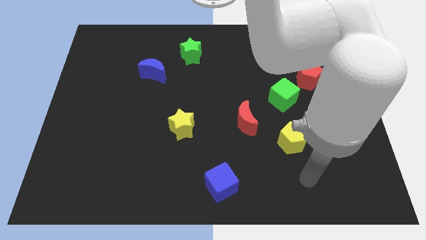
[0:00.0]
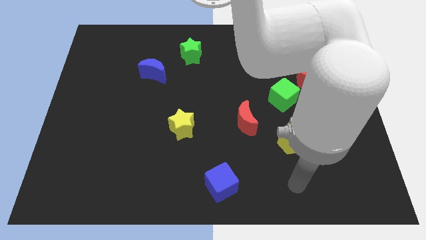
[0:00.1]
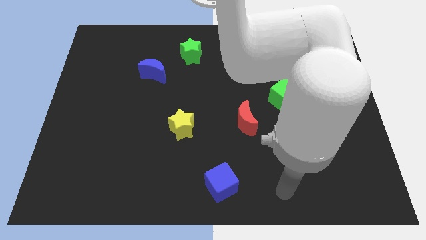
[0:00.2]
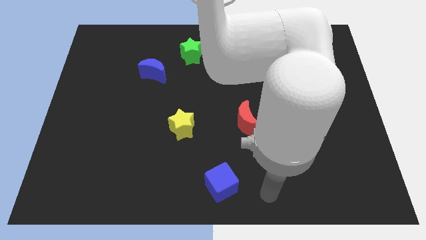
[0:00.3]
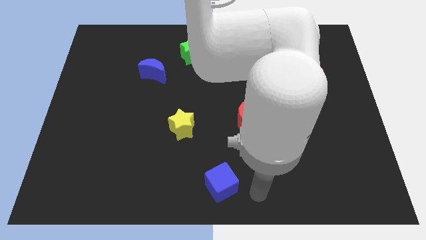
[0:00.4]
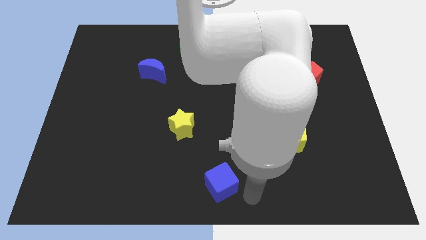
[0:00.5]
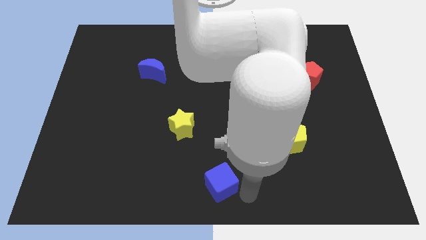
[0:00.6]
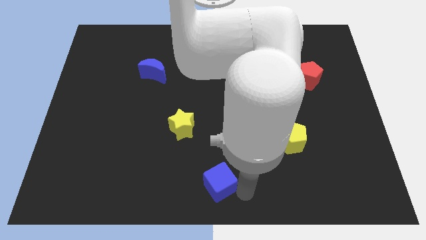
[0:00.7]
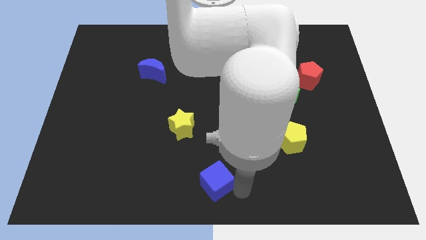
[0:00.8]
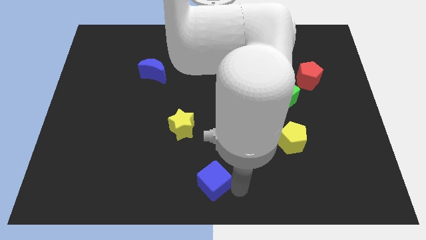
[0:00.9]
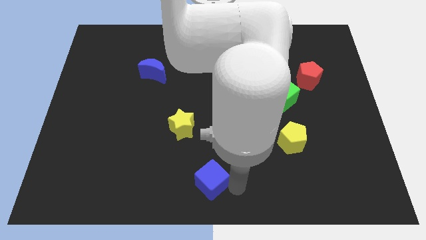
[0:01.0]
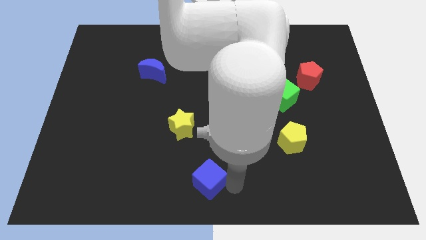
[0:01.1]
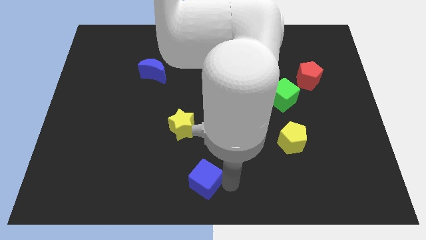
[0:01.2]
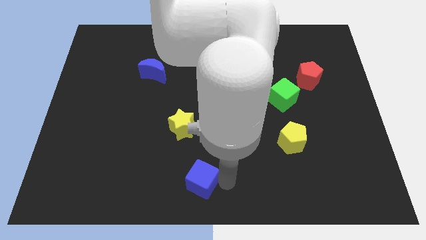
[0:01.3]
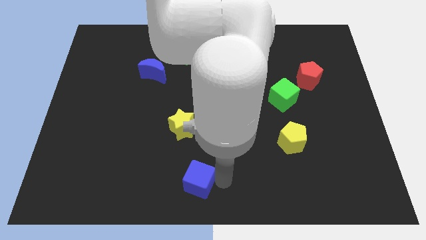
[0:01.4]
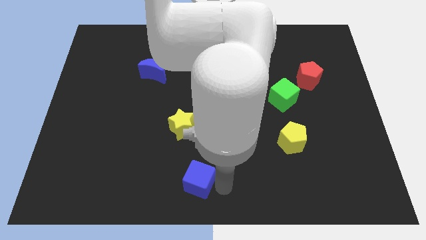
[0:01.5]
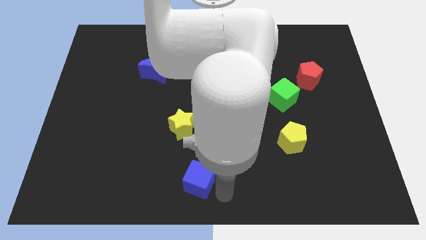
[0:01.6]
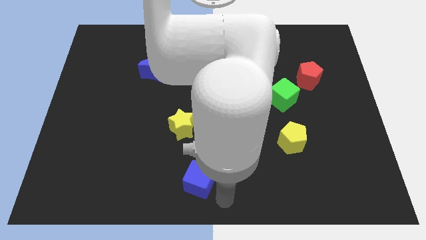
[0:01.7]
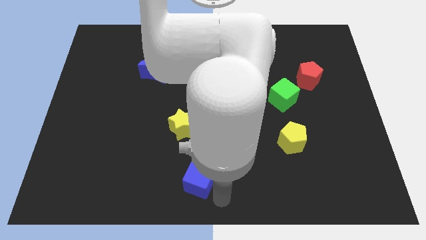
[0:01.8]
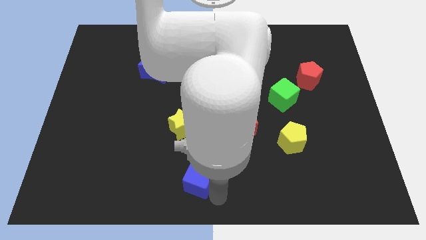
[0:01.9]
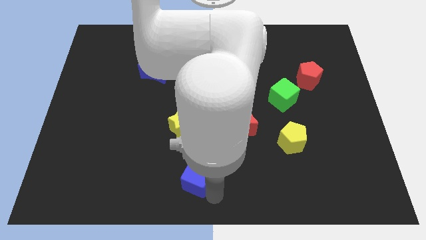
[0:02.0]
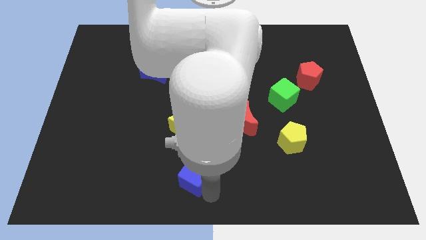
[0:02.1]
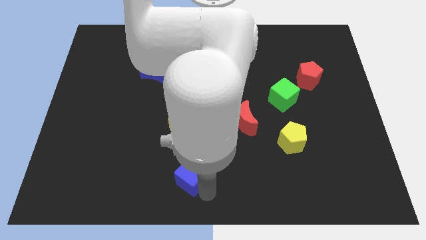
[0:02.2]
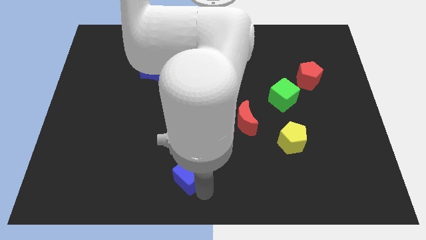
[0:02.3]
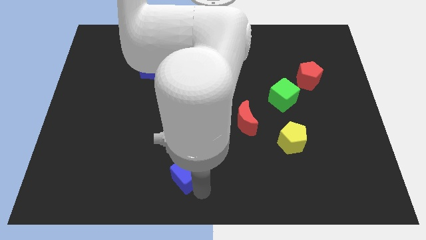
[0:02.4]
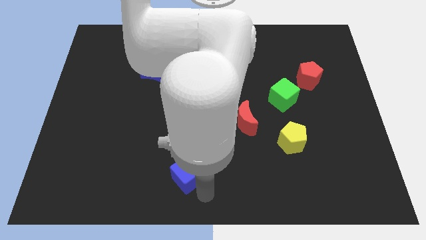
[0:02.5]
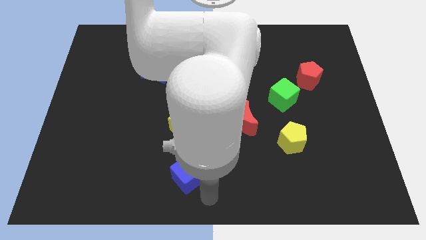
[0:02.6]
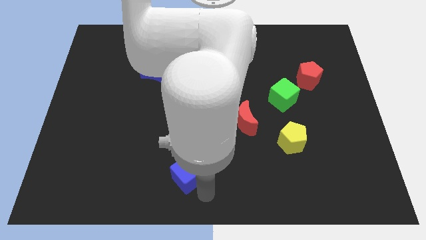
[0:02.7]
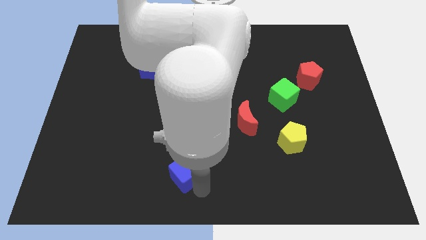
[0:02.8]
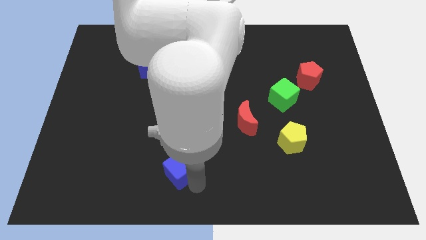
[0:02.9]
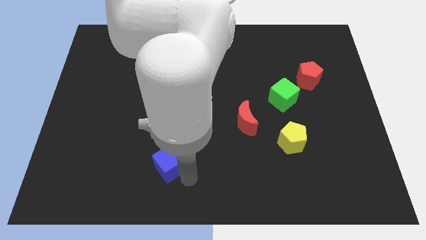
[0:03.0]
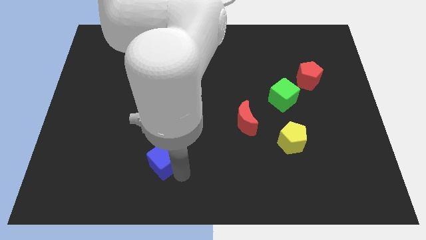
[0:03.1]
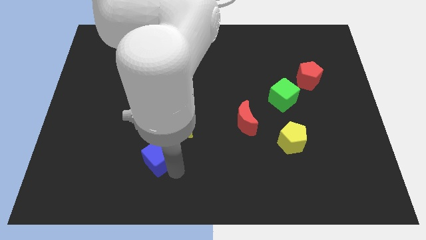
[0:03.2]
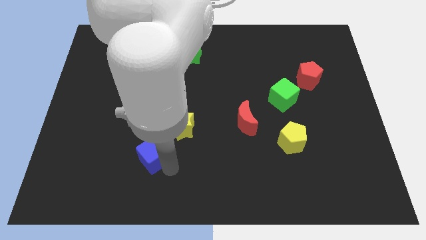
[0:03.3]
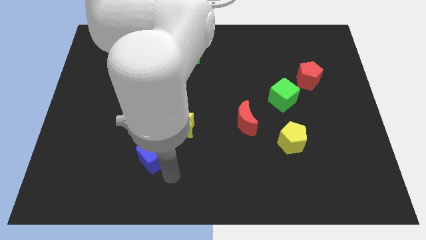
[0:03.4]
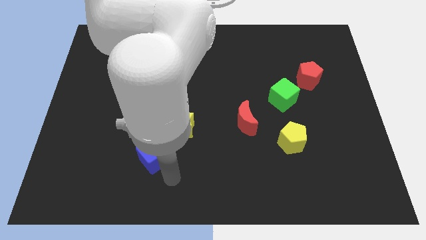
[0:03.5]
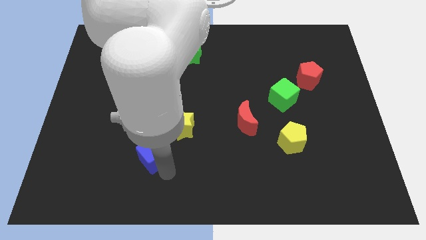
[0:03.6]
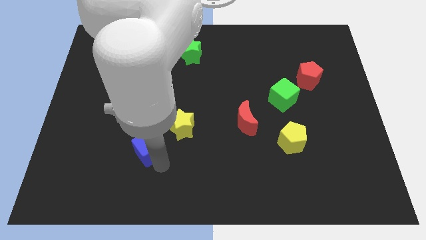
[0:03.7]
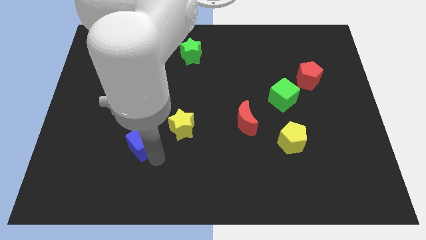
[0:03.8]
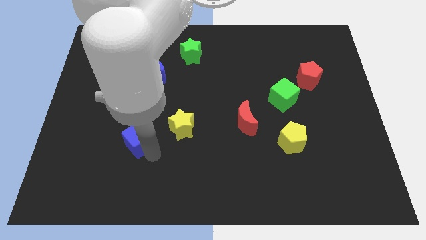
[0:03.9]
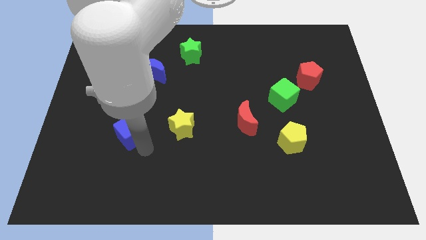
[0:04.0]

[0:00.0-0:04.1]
slide the blue cube upwards and to the left

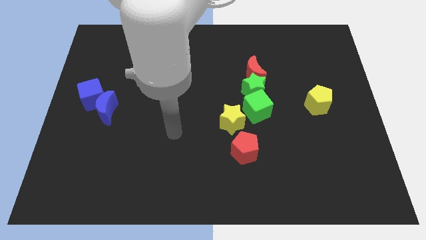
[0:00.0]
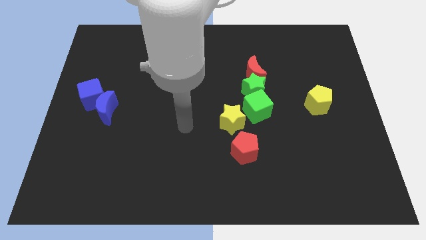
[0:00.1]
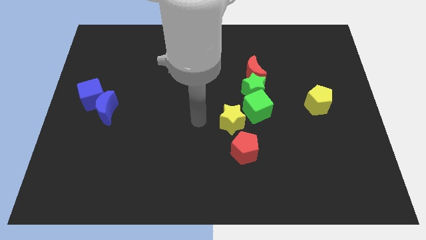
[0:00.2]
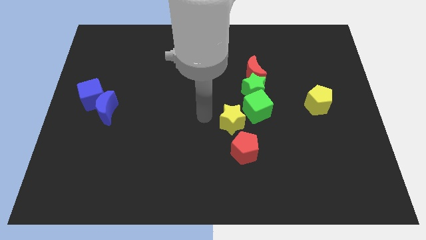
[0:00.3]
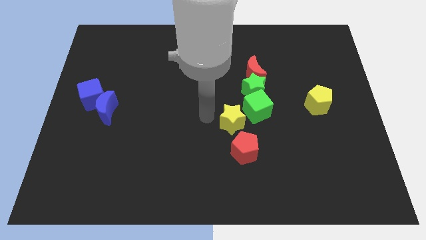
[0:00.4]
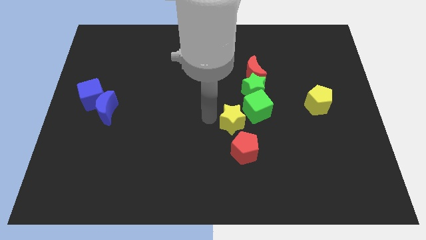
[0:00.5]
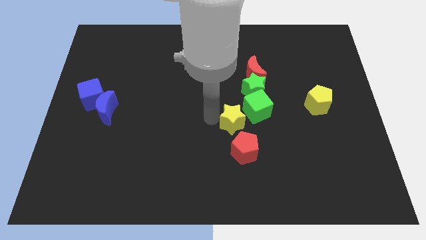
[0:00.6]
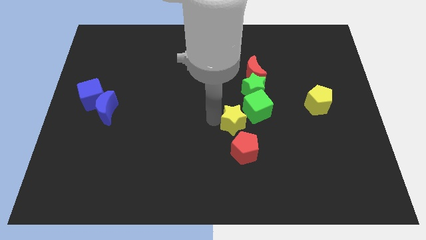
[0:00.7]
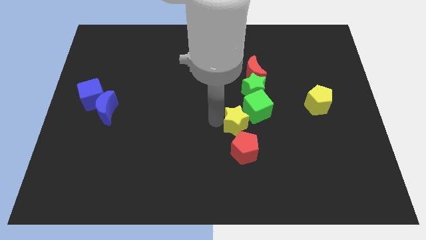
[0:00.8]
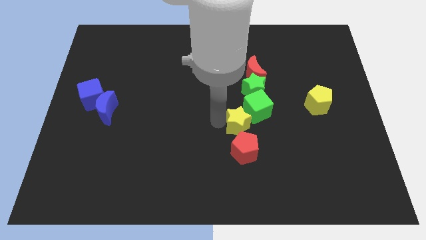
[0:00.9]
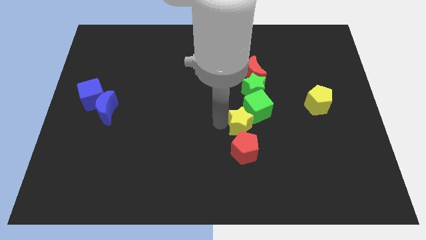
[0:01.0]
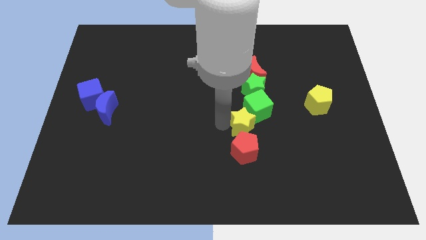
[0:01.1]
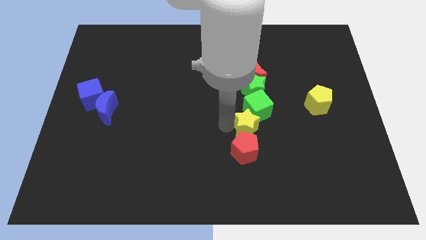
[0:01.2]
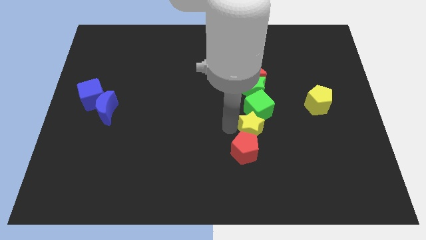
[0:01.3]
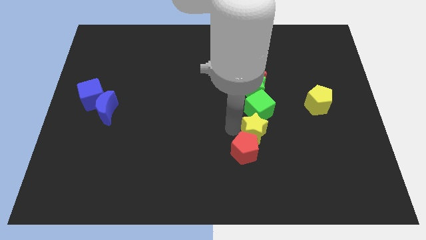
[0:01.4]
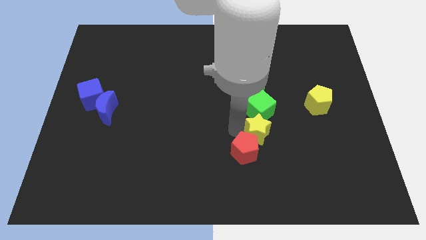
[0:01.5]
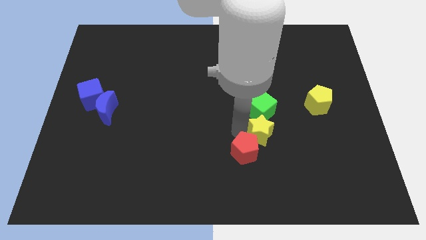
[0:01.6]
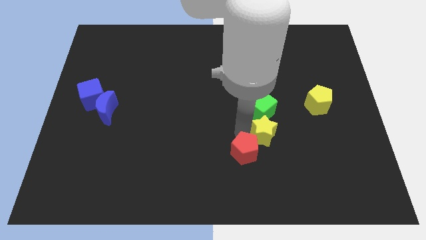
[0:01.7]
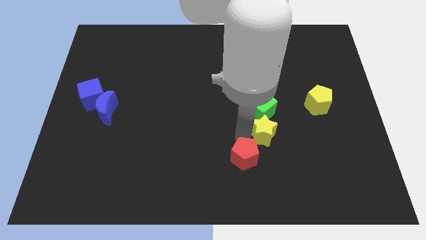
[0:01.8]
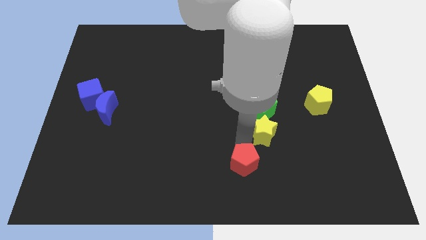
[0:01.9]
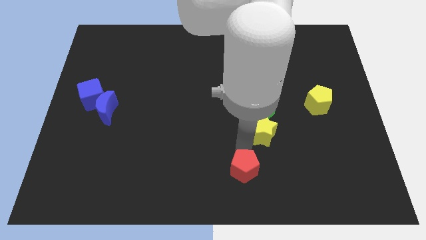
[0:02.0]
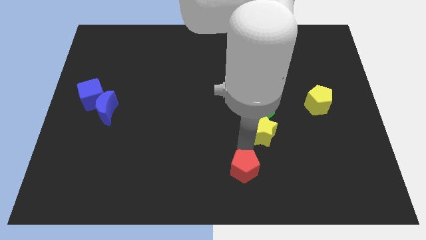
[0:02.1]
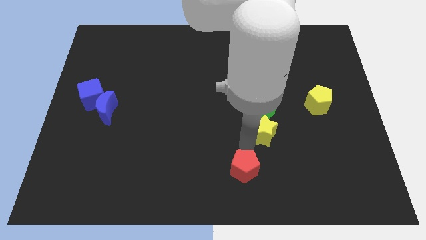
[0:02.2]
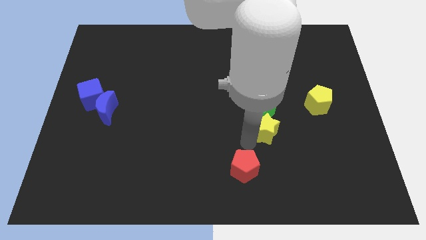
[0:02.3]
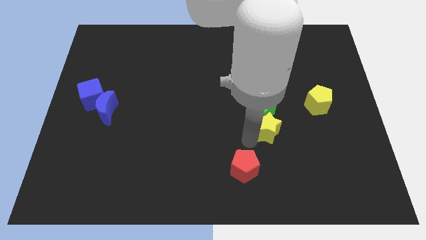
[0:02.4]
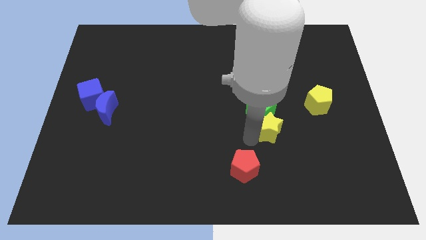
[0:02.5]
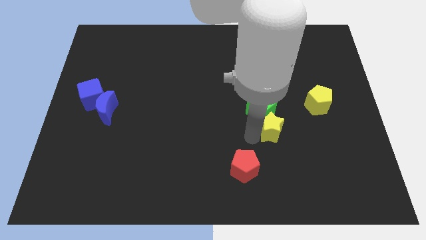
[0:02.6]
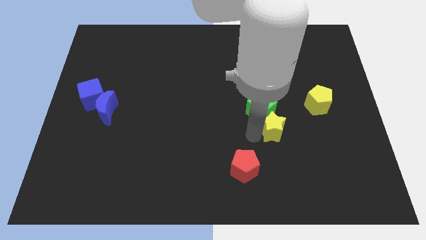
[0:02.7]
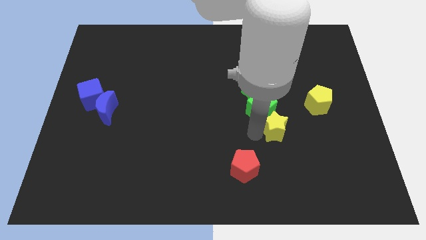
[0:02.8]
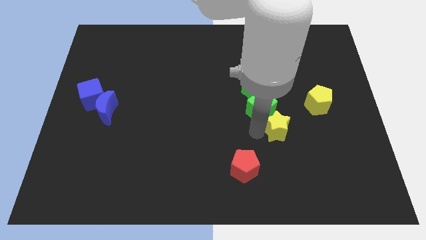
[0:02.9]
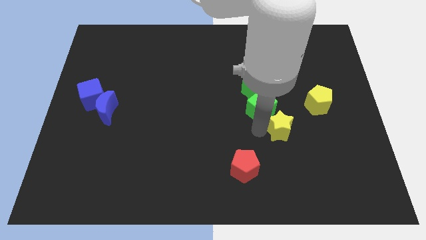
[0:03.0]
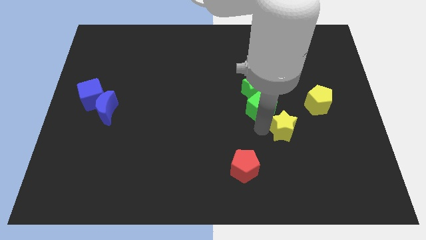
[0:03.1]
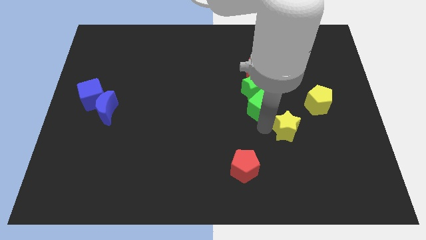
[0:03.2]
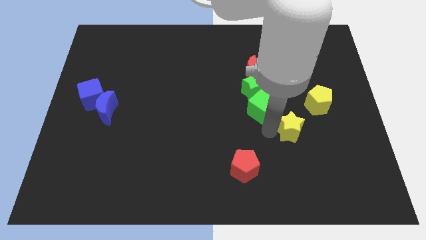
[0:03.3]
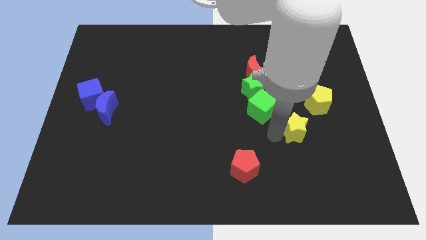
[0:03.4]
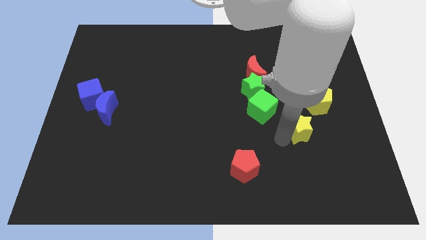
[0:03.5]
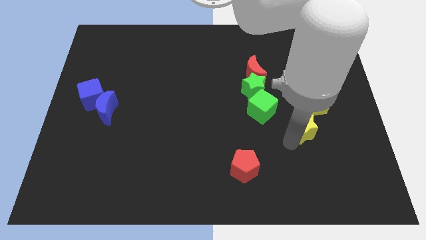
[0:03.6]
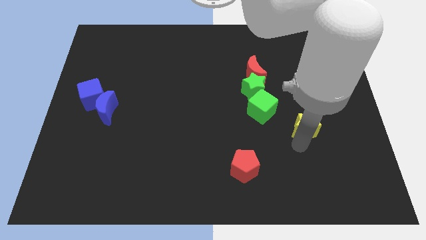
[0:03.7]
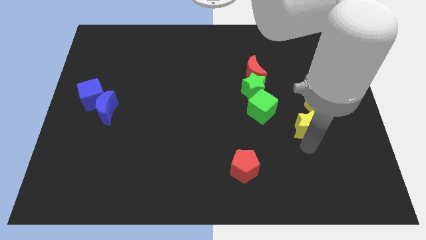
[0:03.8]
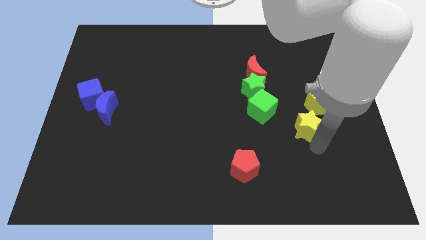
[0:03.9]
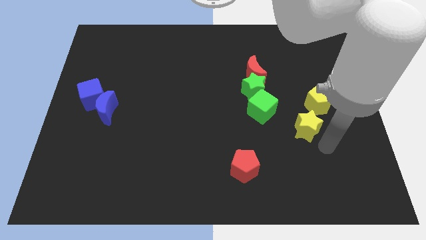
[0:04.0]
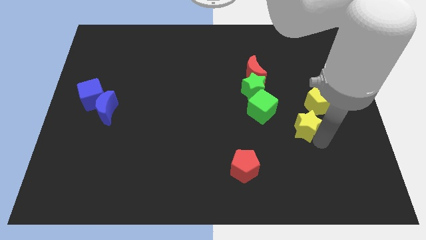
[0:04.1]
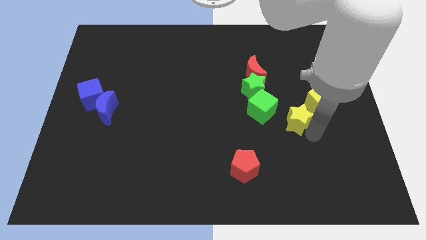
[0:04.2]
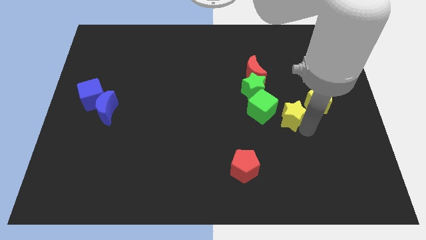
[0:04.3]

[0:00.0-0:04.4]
move the yellow star up and to the right diagonally somewhat
